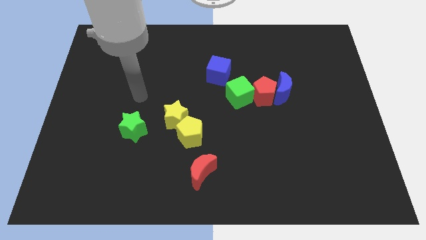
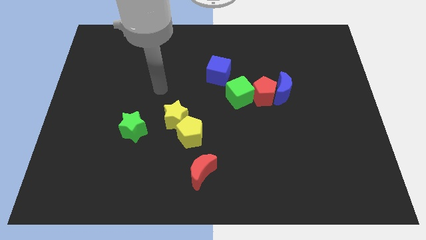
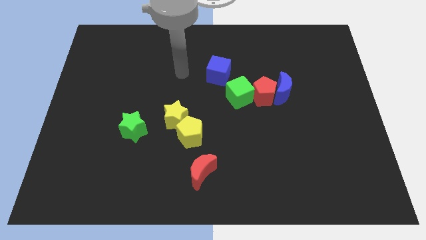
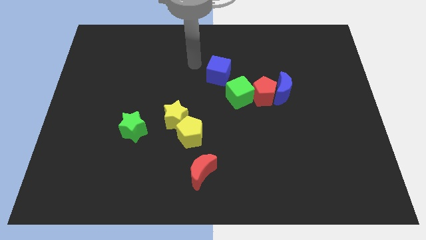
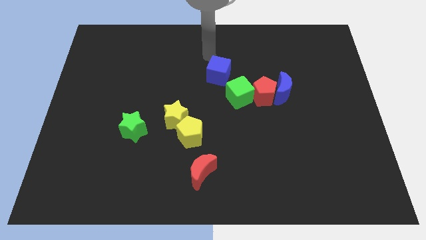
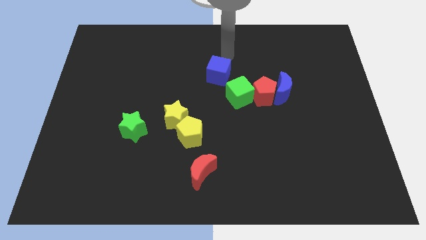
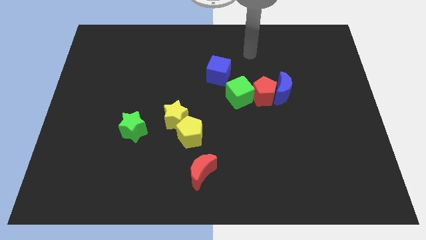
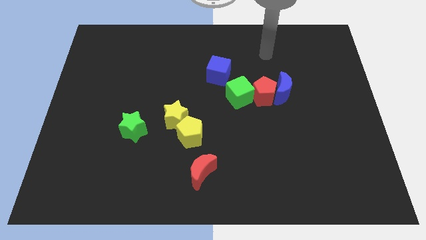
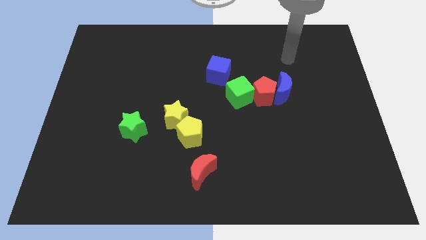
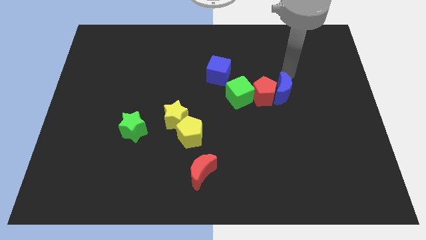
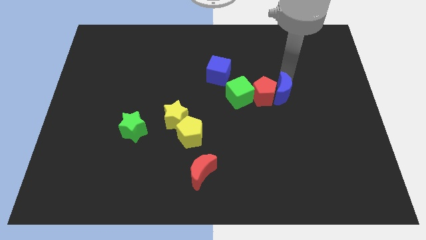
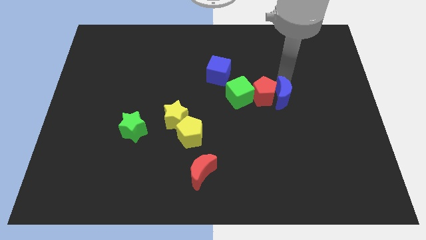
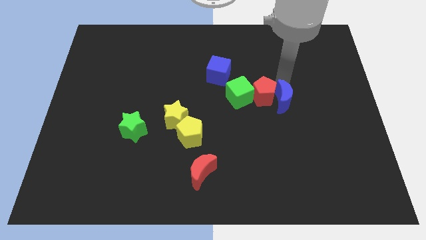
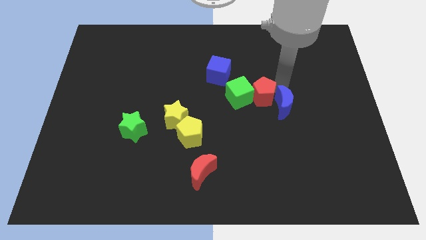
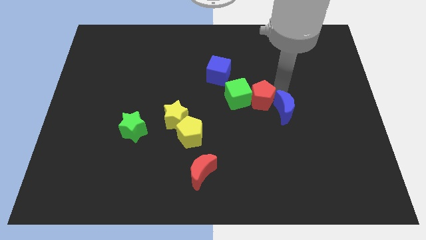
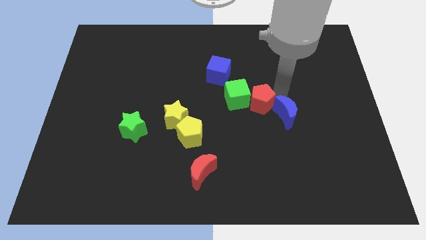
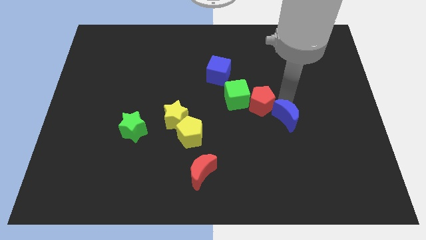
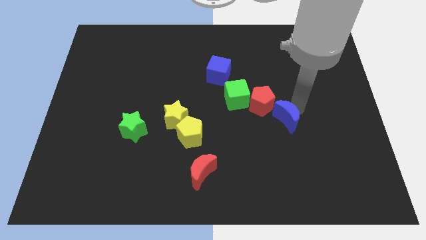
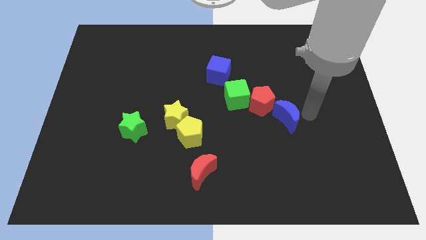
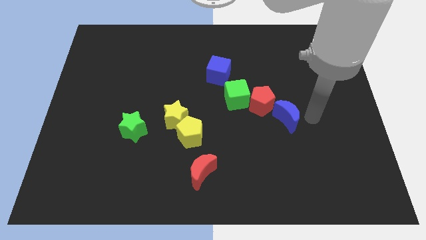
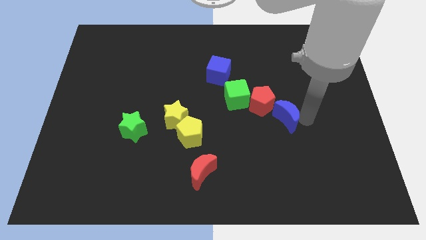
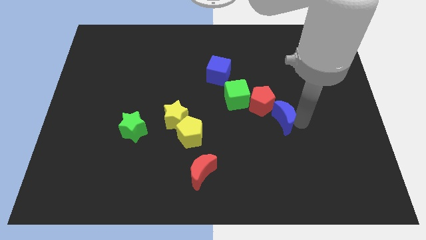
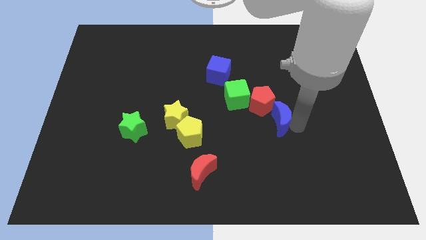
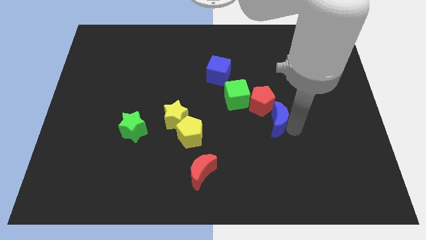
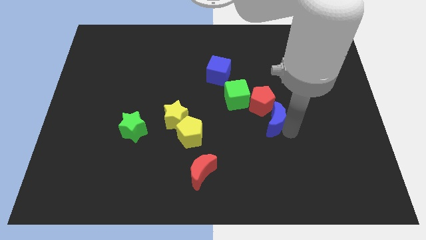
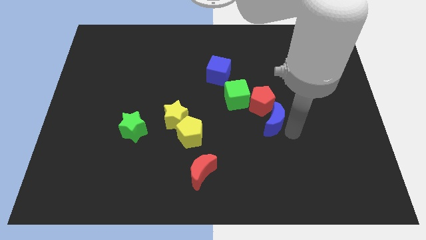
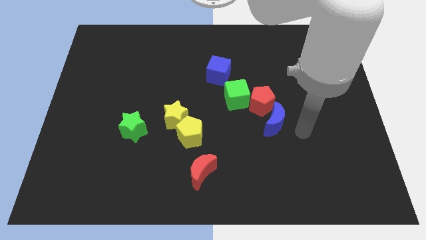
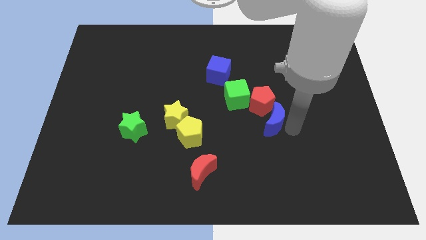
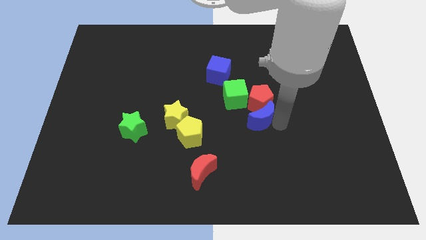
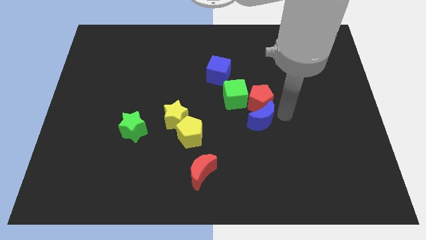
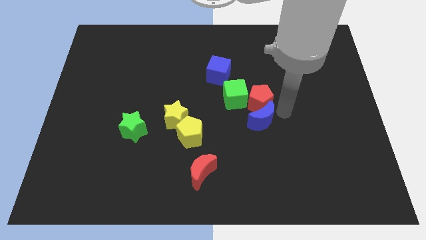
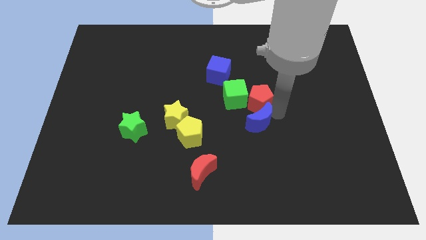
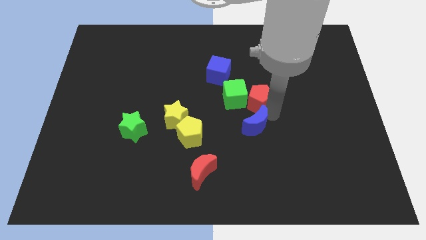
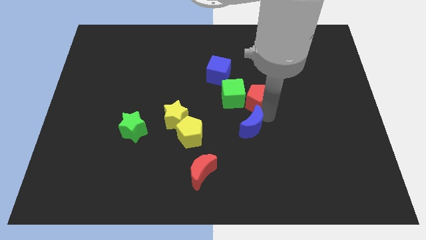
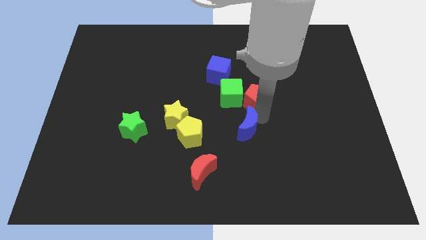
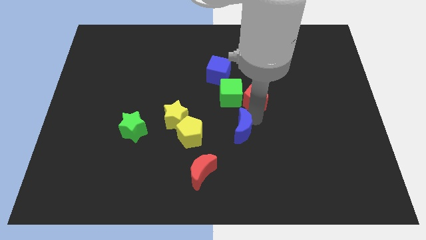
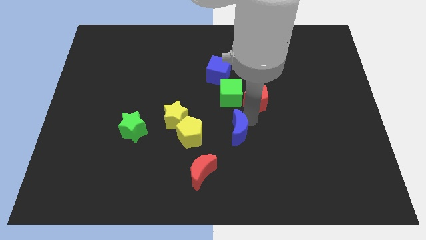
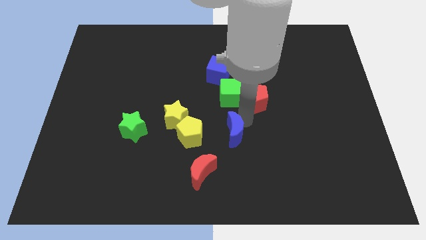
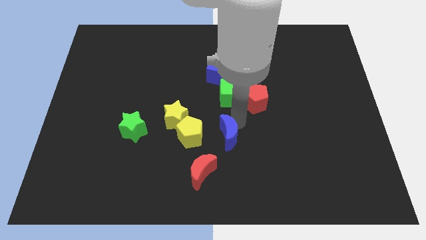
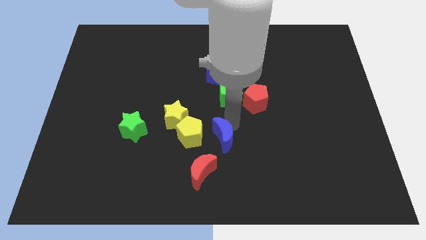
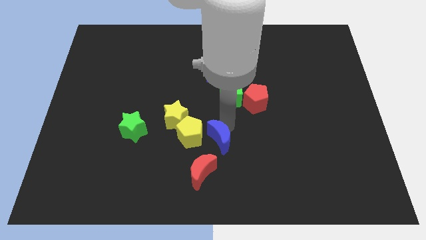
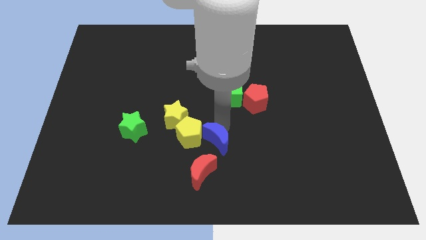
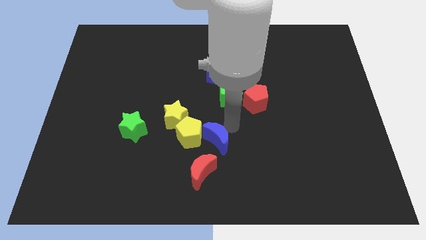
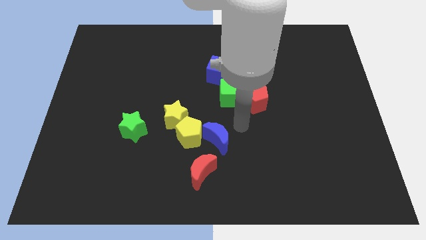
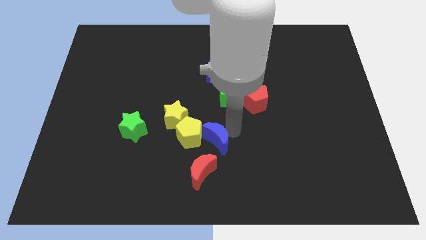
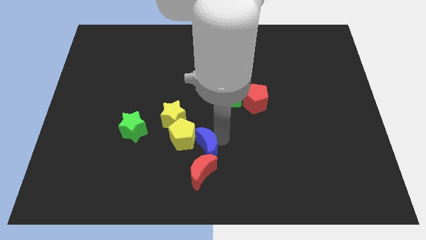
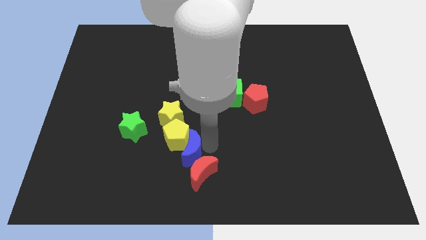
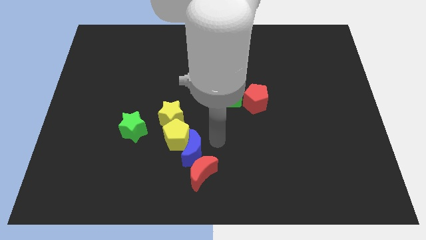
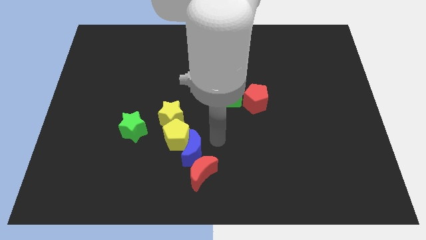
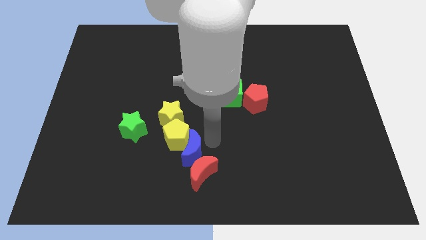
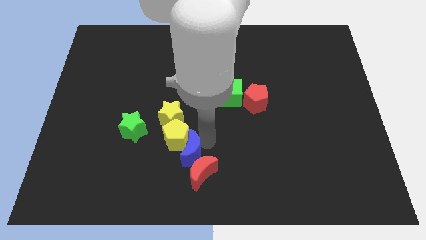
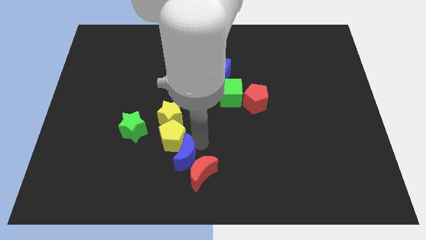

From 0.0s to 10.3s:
put the blue moon to the left of the red moon

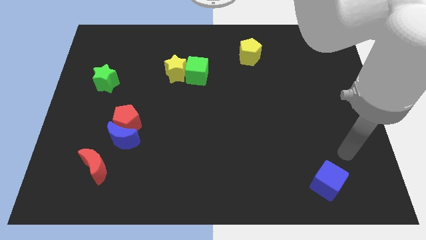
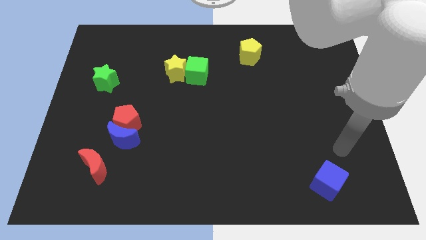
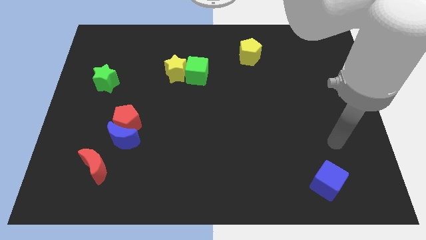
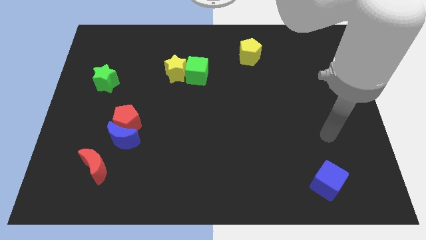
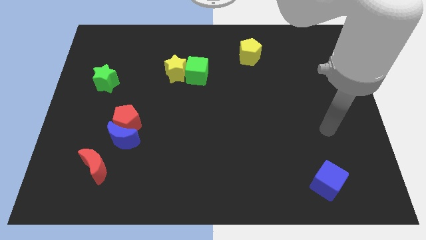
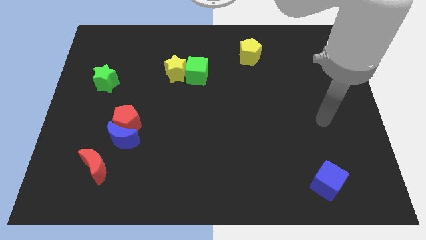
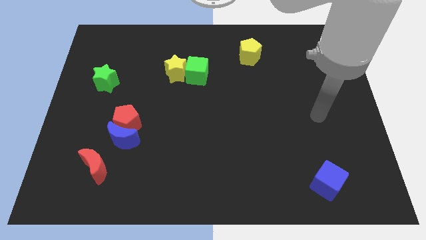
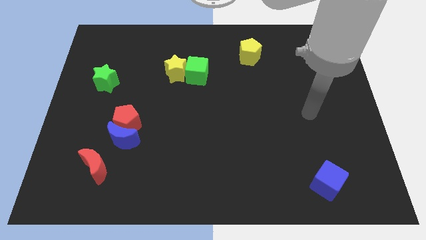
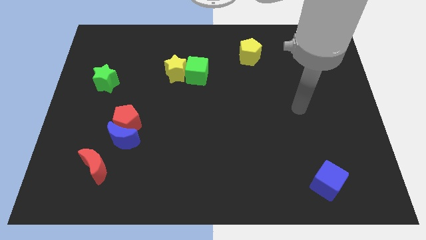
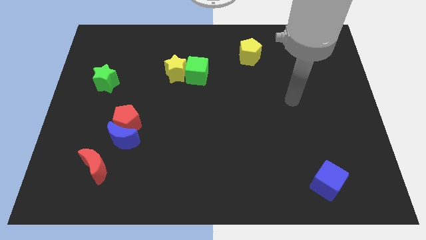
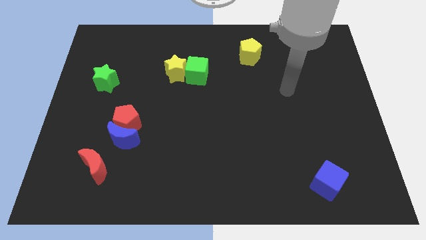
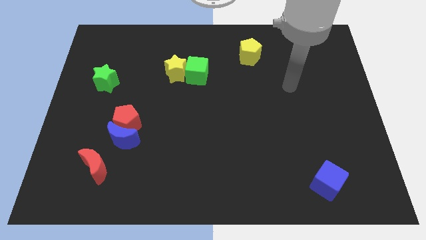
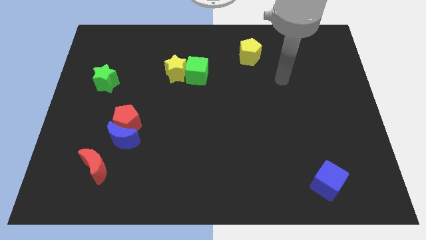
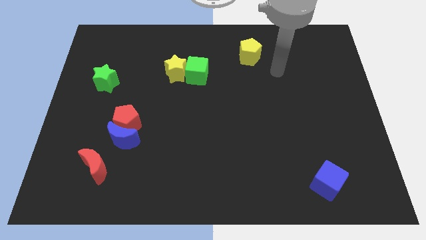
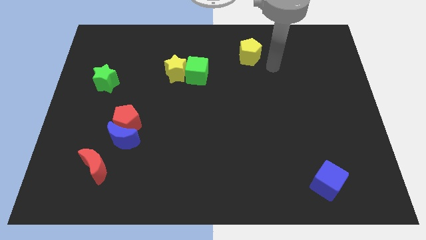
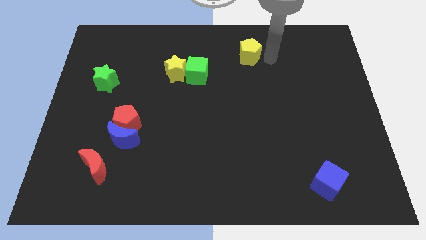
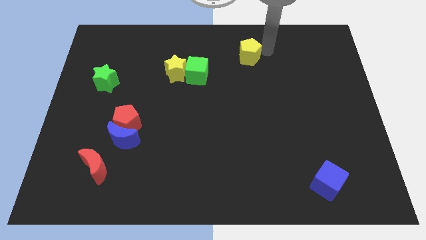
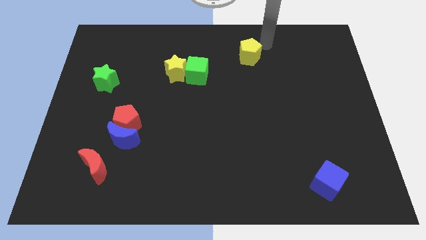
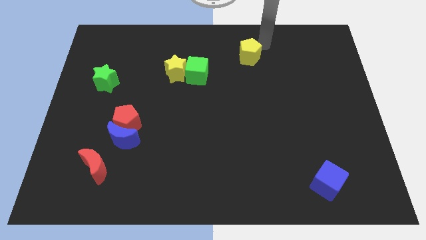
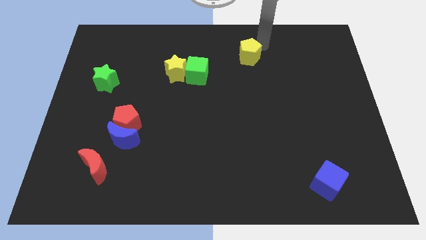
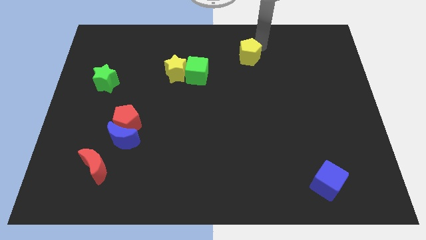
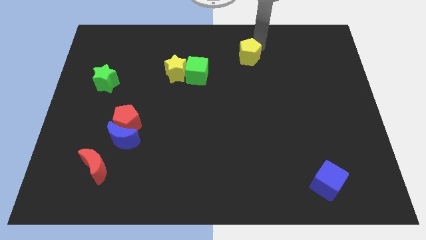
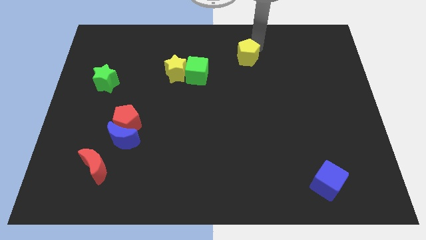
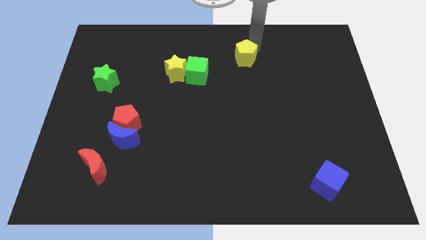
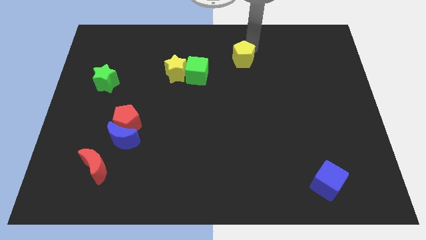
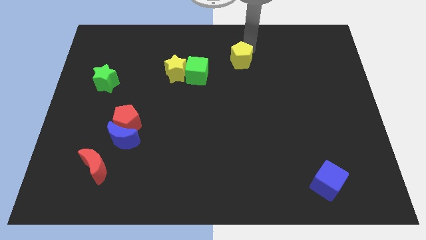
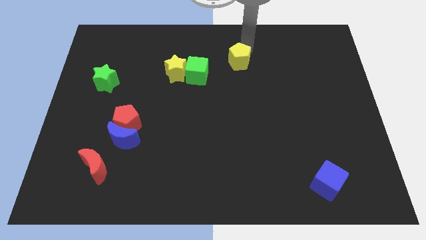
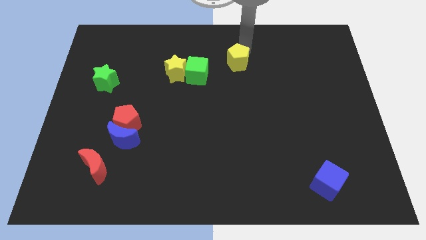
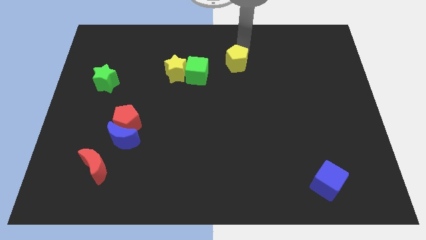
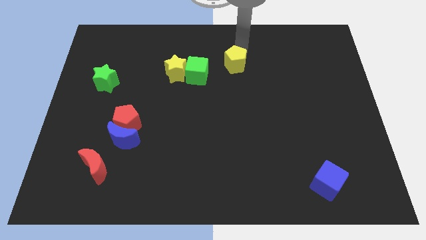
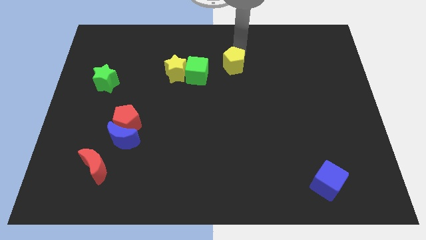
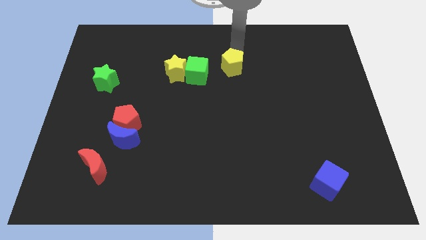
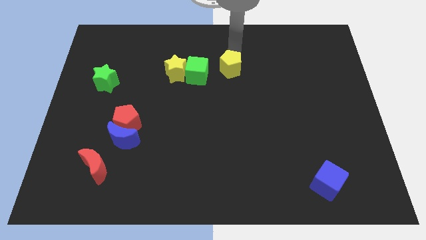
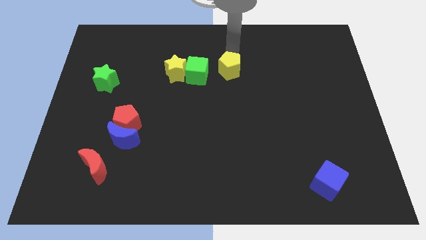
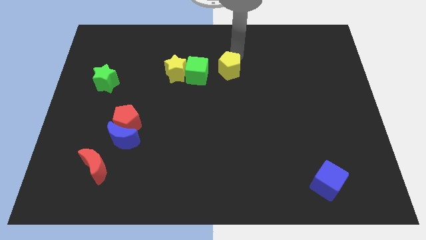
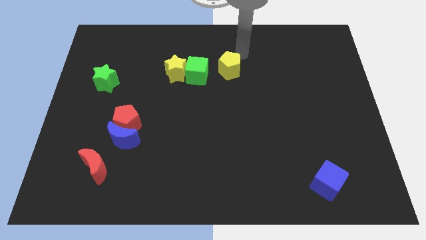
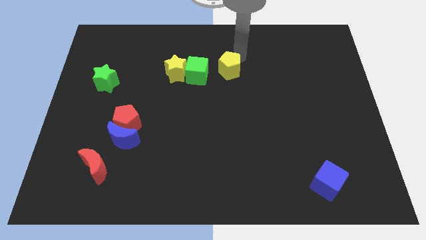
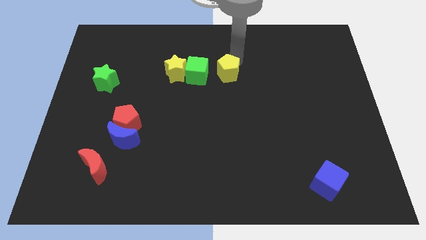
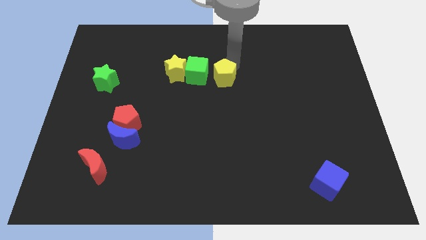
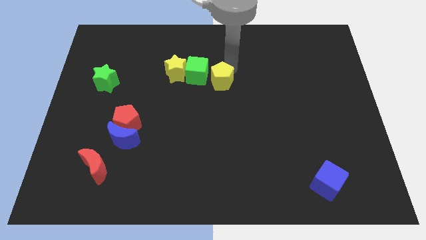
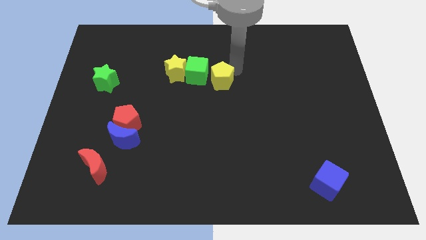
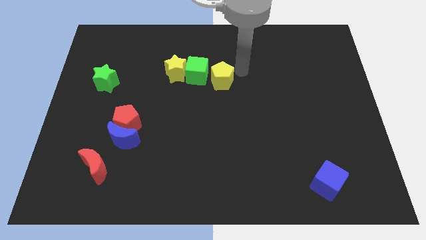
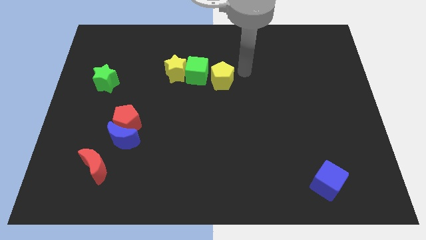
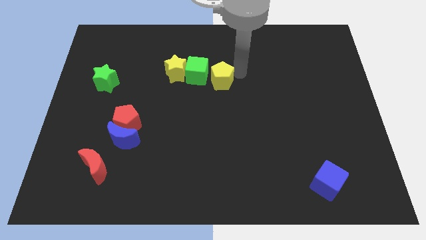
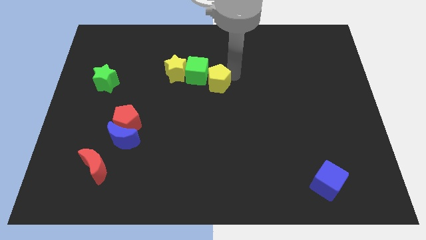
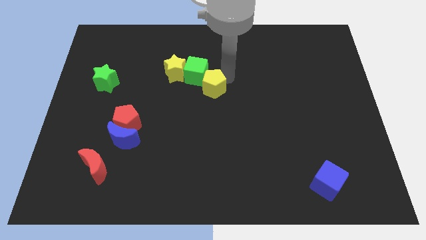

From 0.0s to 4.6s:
slide the yellow pentagon diagonally down and to the right of the yellow star
